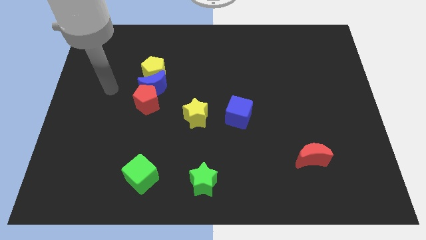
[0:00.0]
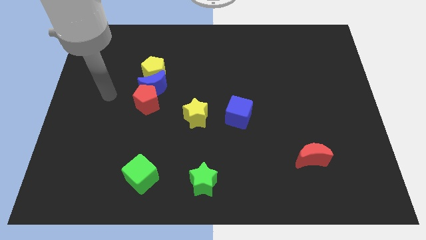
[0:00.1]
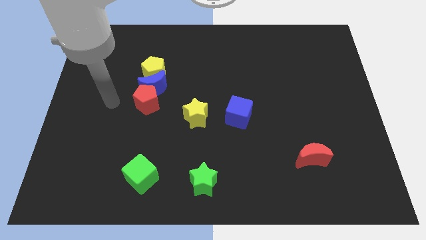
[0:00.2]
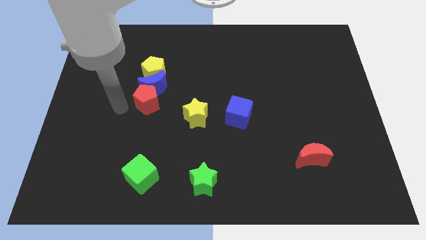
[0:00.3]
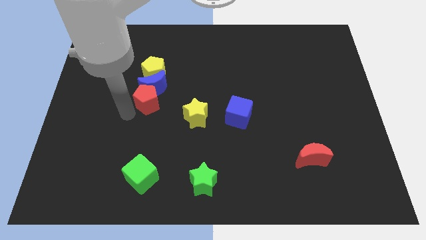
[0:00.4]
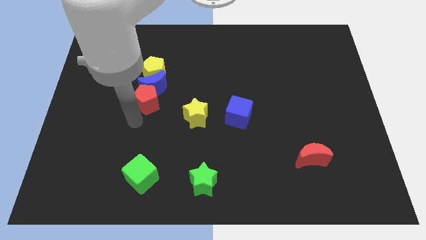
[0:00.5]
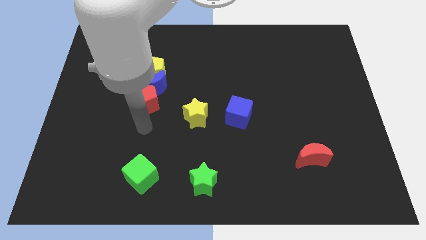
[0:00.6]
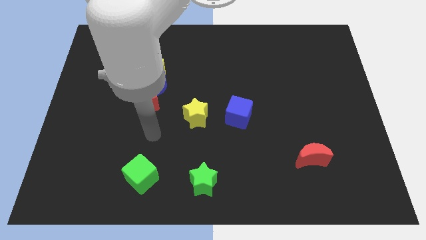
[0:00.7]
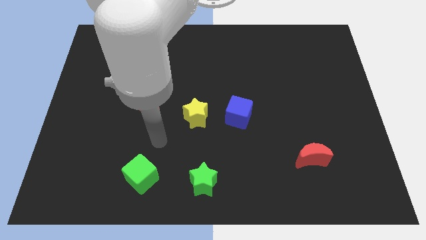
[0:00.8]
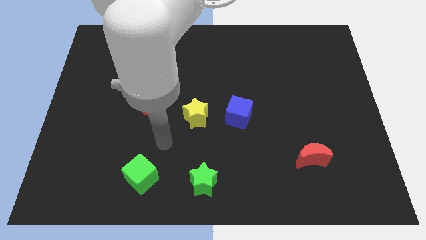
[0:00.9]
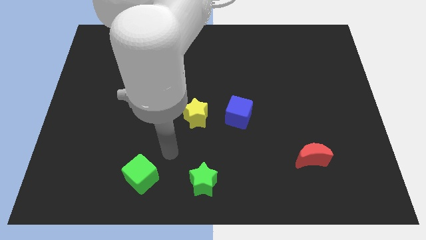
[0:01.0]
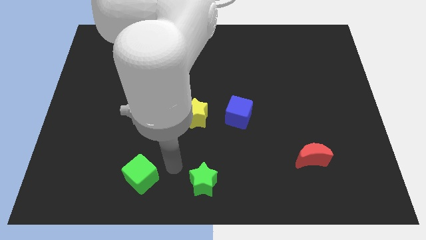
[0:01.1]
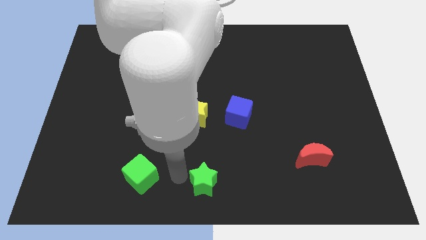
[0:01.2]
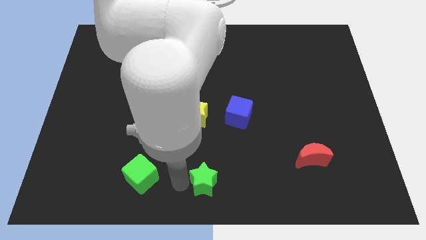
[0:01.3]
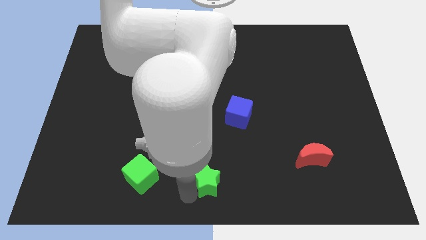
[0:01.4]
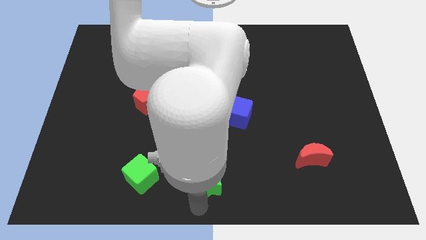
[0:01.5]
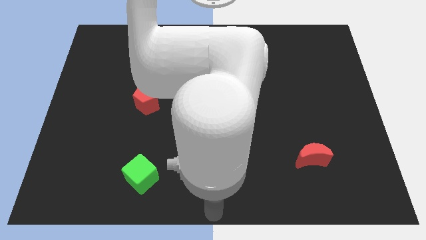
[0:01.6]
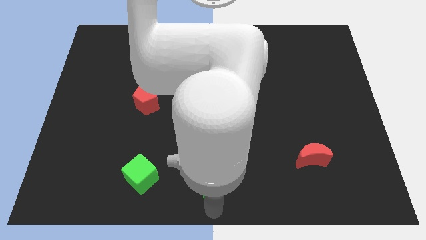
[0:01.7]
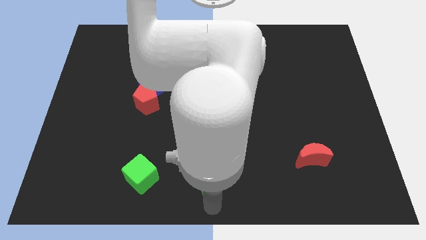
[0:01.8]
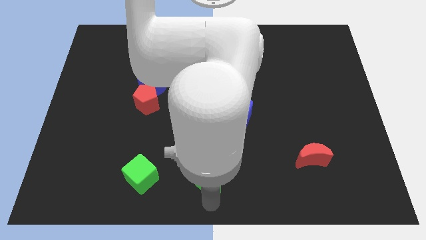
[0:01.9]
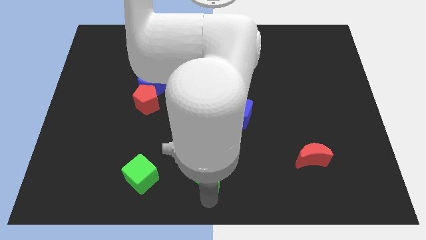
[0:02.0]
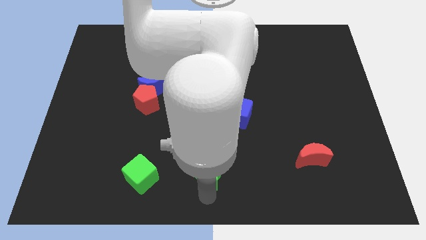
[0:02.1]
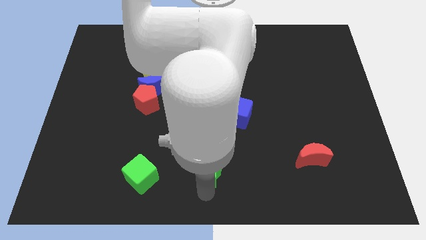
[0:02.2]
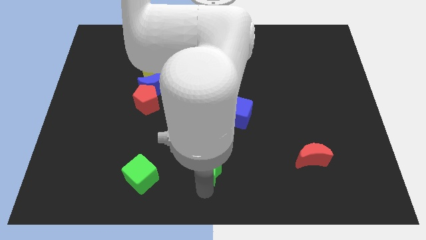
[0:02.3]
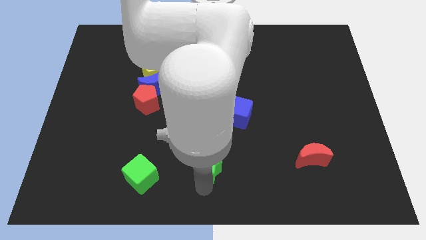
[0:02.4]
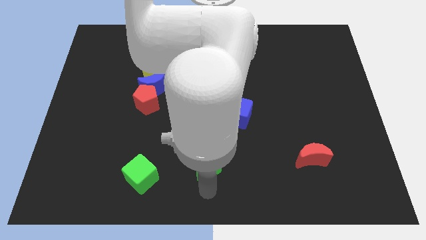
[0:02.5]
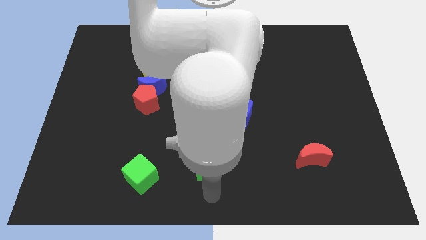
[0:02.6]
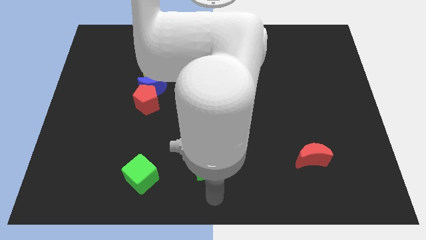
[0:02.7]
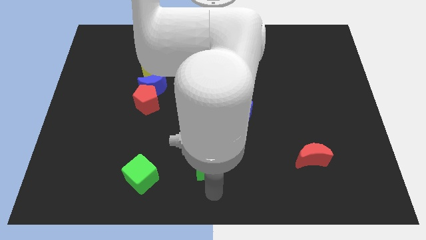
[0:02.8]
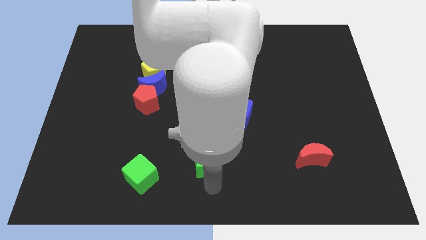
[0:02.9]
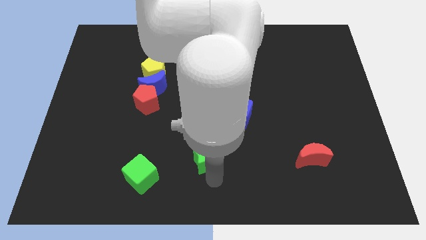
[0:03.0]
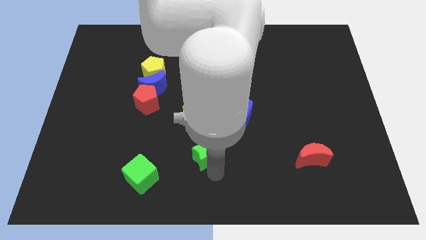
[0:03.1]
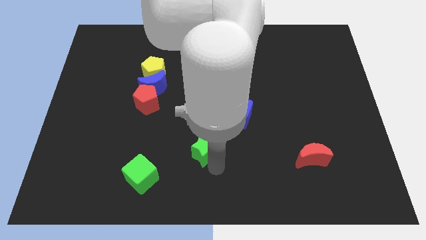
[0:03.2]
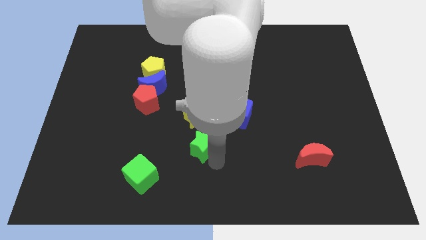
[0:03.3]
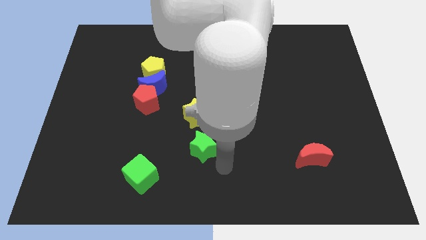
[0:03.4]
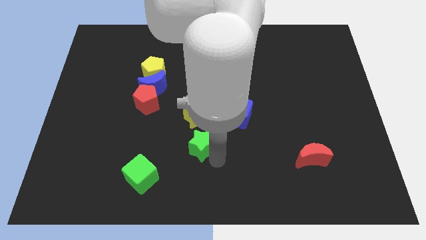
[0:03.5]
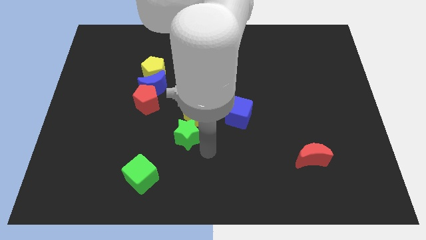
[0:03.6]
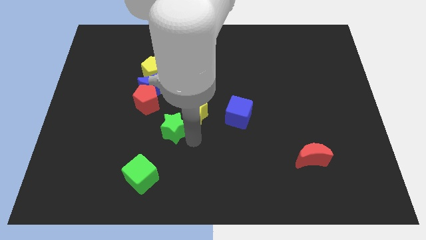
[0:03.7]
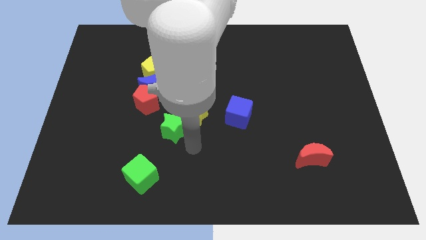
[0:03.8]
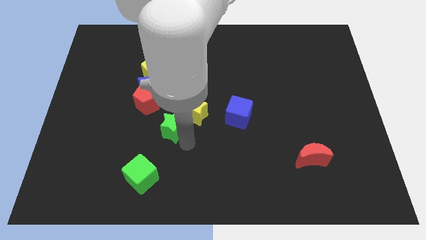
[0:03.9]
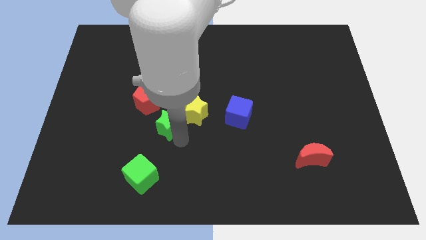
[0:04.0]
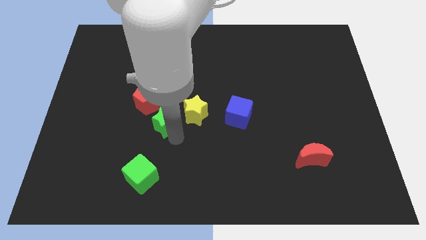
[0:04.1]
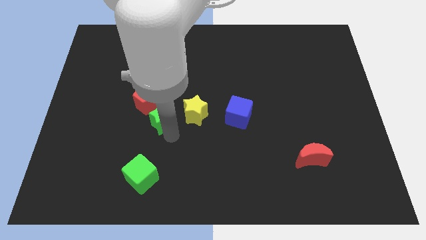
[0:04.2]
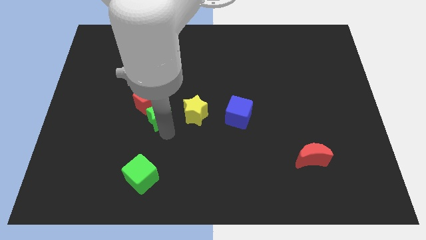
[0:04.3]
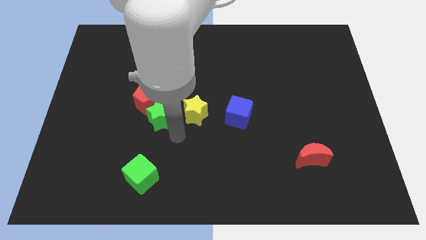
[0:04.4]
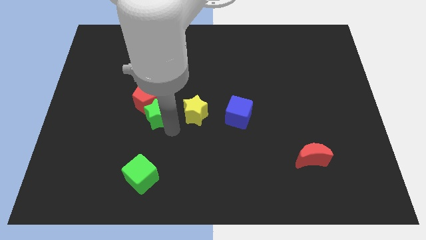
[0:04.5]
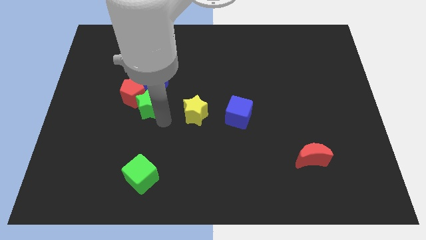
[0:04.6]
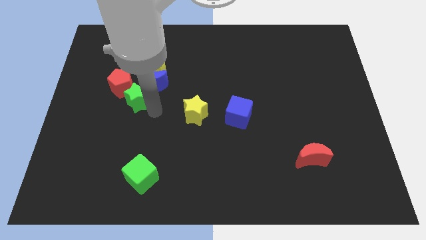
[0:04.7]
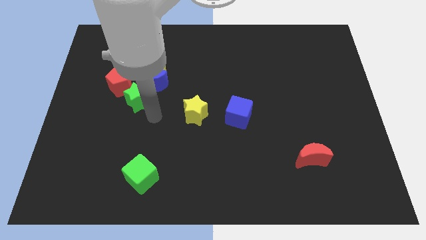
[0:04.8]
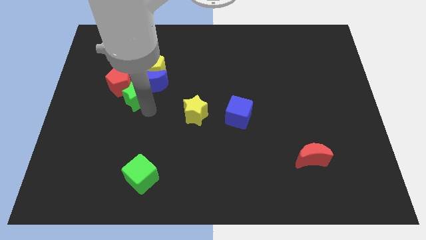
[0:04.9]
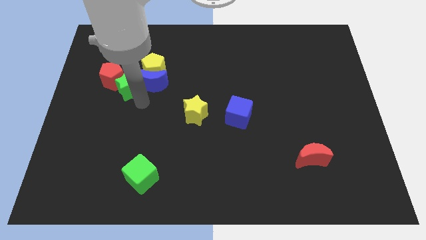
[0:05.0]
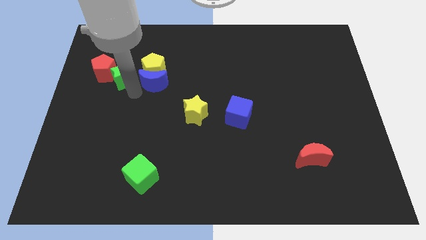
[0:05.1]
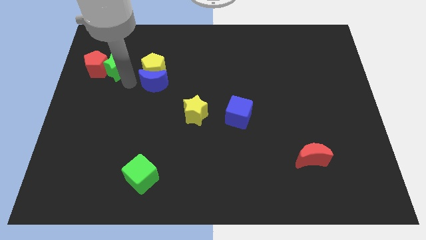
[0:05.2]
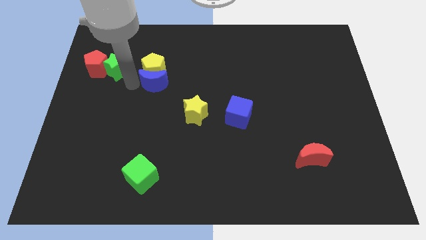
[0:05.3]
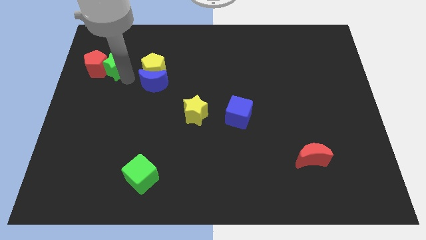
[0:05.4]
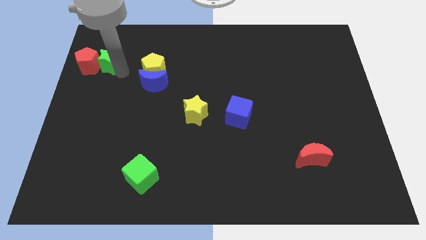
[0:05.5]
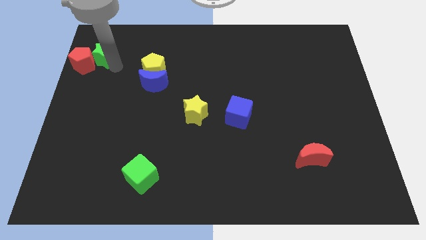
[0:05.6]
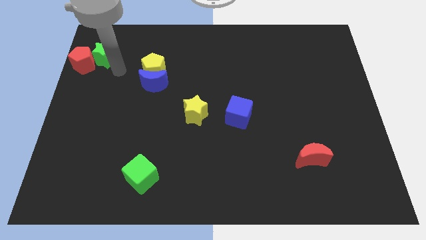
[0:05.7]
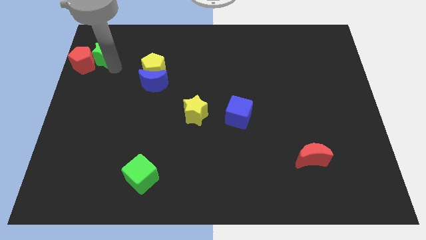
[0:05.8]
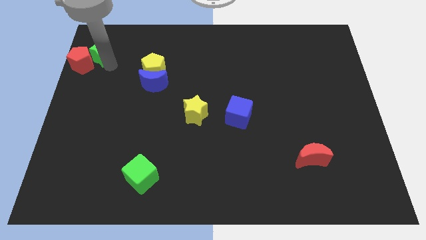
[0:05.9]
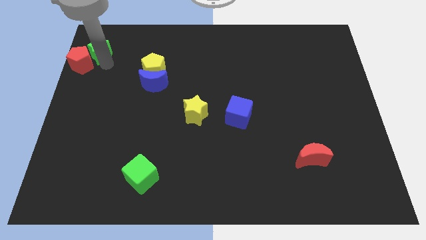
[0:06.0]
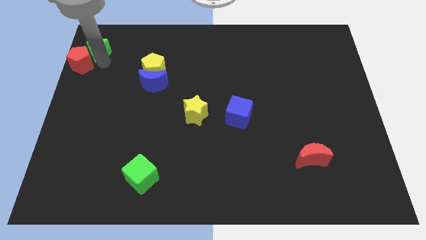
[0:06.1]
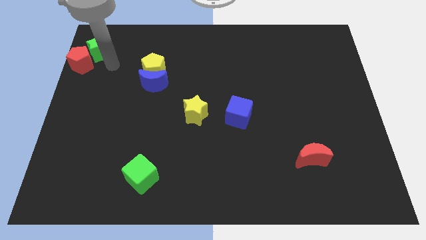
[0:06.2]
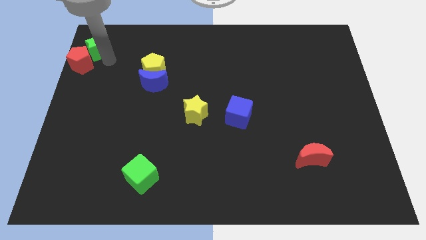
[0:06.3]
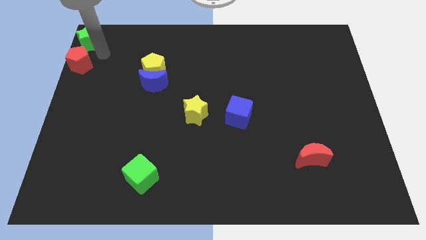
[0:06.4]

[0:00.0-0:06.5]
slide the green star to the top left
